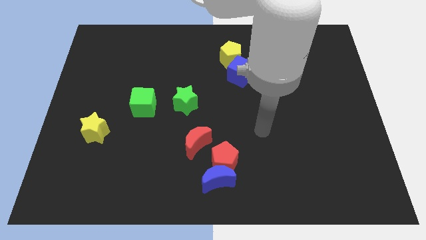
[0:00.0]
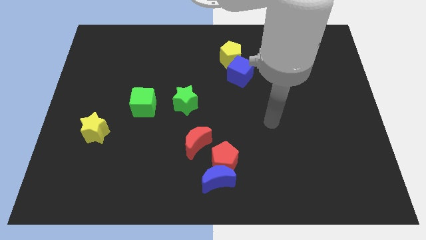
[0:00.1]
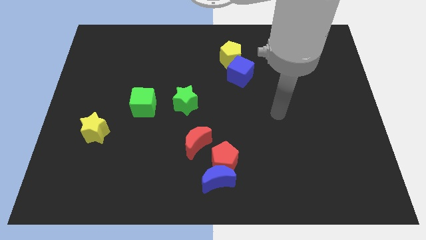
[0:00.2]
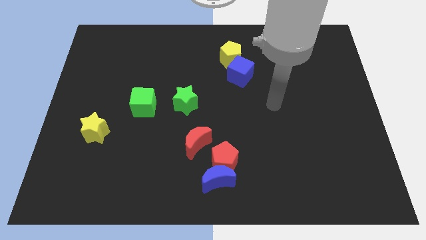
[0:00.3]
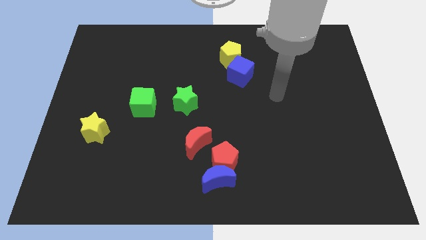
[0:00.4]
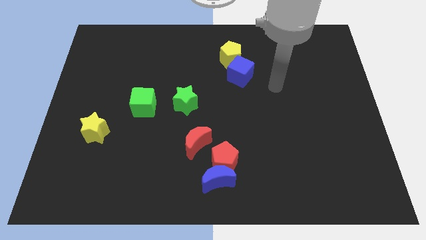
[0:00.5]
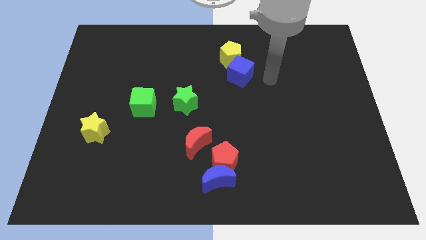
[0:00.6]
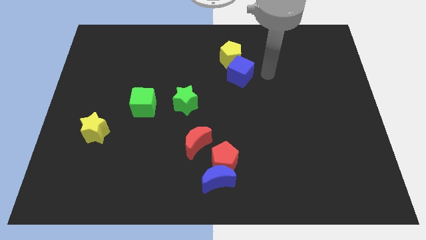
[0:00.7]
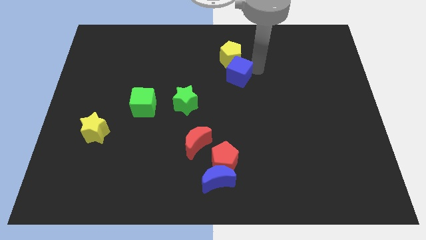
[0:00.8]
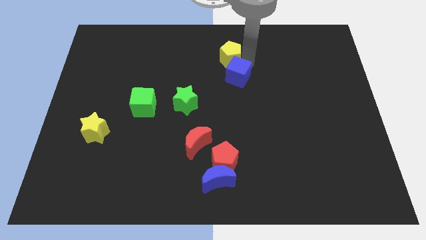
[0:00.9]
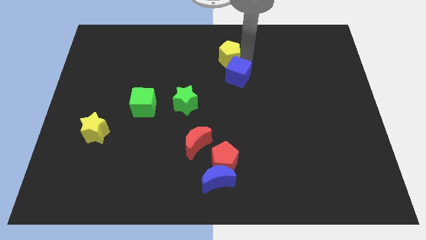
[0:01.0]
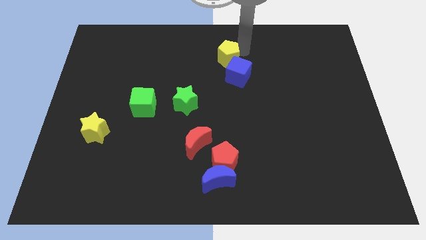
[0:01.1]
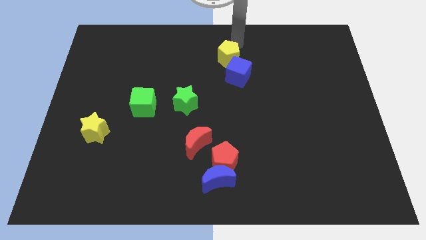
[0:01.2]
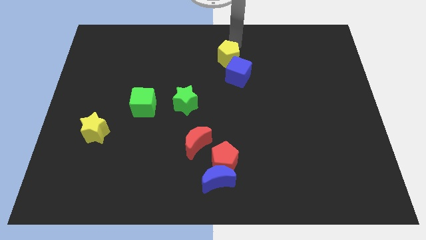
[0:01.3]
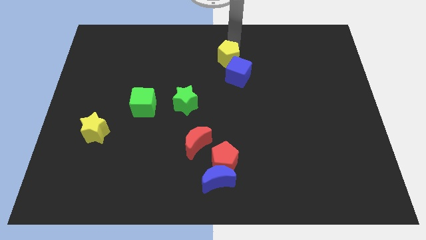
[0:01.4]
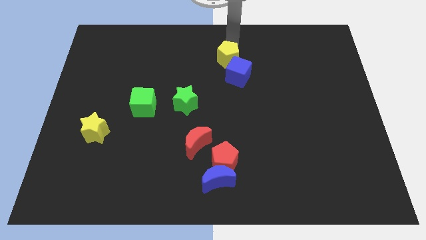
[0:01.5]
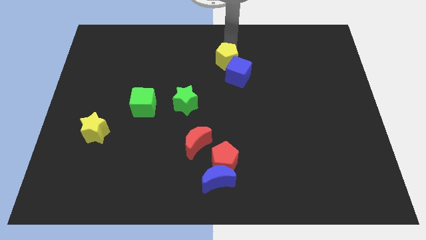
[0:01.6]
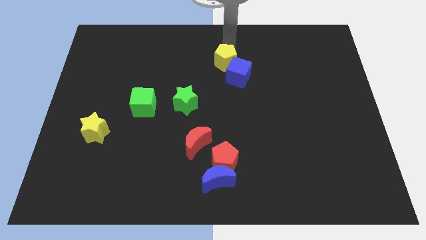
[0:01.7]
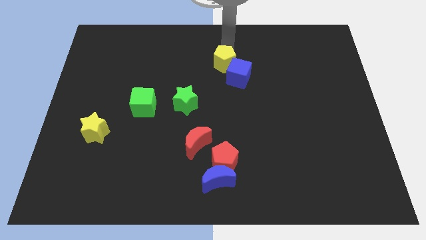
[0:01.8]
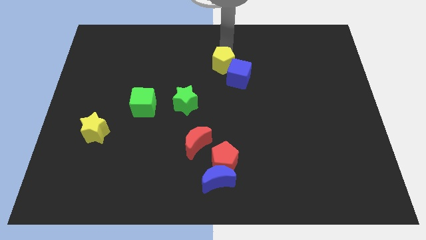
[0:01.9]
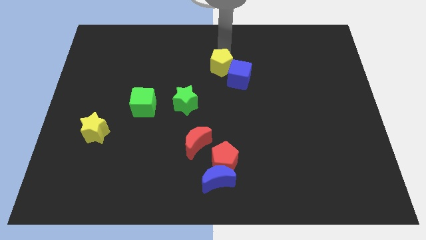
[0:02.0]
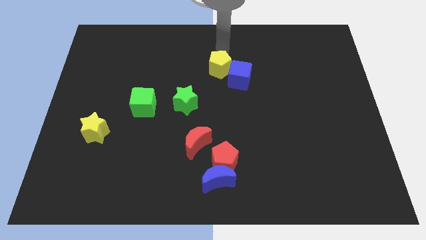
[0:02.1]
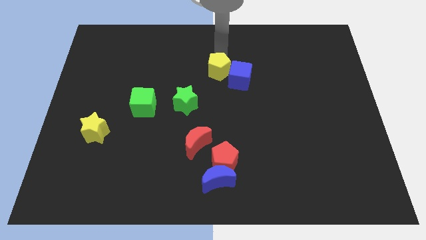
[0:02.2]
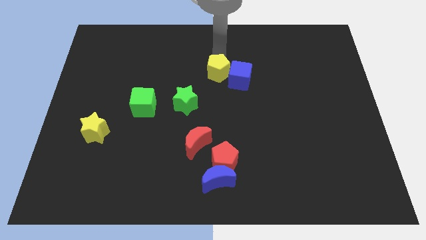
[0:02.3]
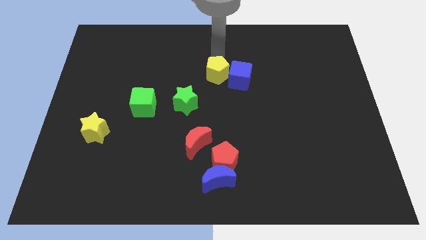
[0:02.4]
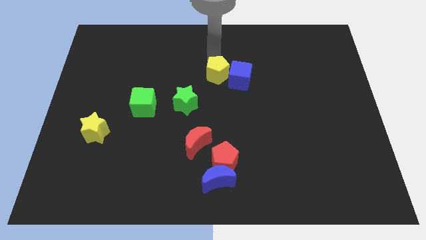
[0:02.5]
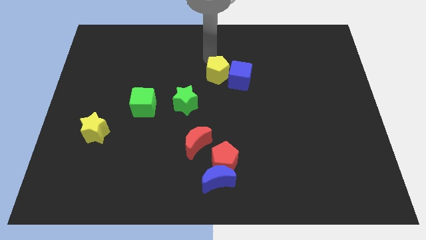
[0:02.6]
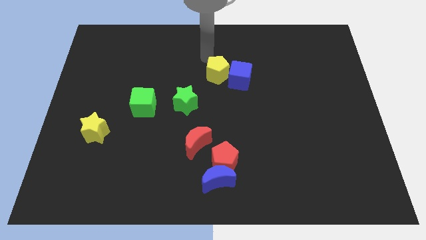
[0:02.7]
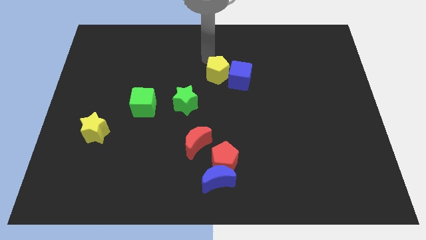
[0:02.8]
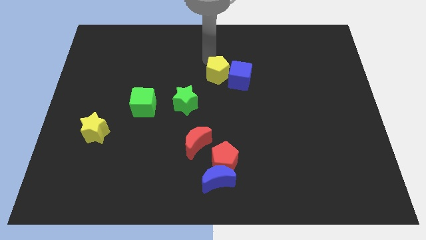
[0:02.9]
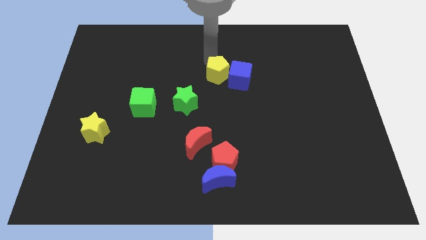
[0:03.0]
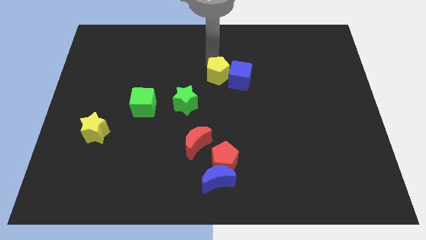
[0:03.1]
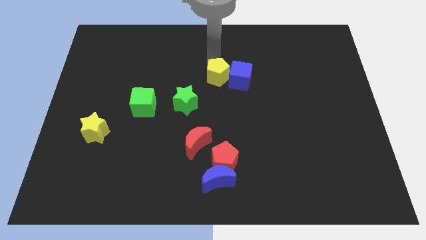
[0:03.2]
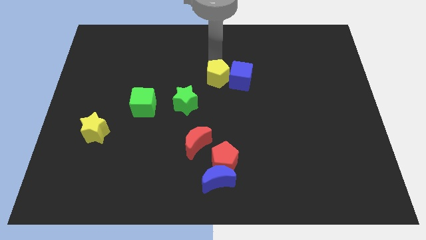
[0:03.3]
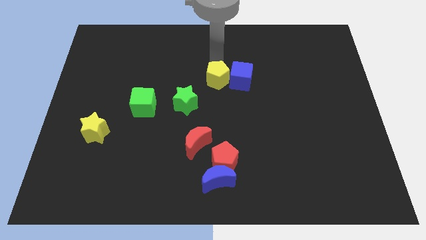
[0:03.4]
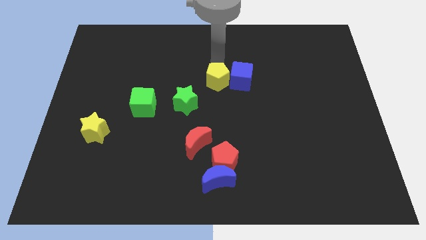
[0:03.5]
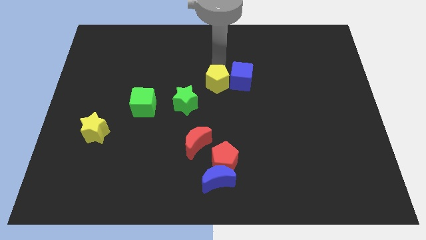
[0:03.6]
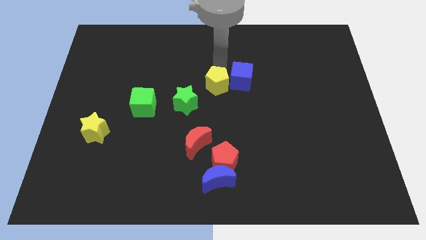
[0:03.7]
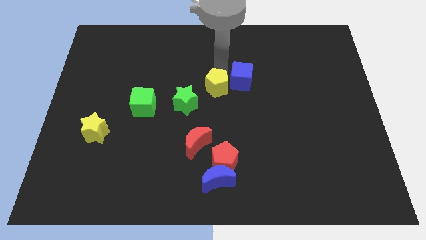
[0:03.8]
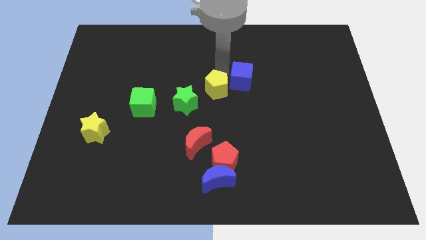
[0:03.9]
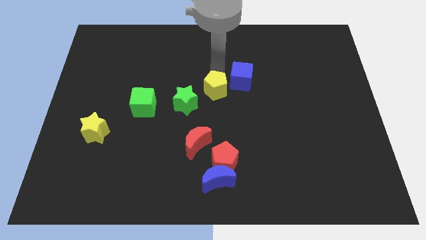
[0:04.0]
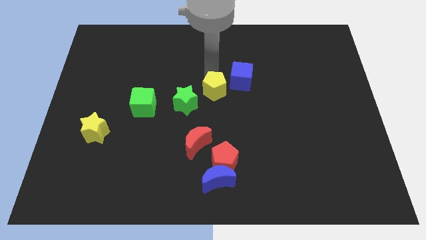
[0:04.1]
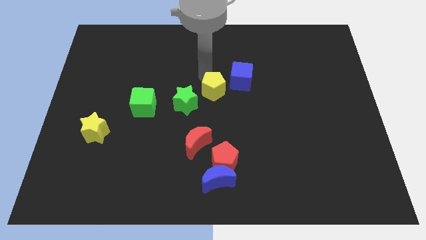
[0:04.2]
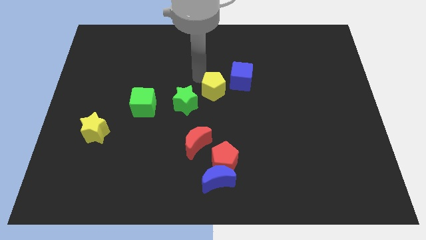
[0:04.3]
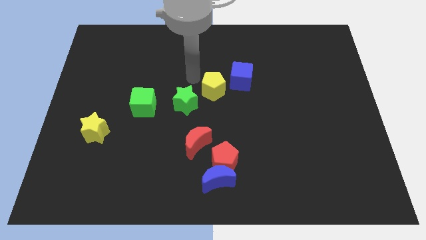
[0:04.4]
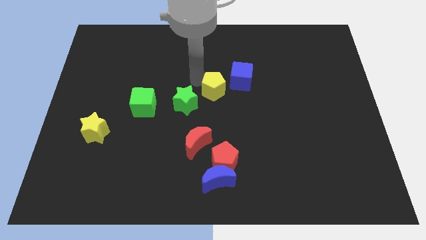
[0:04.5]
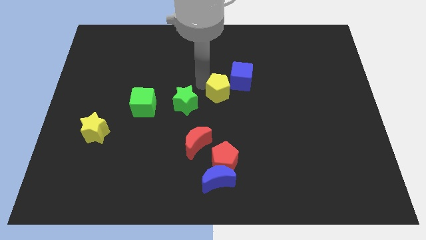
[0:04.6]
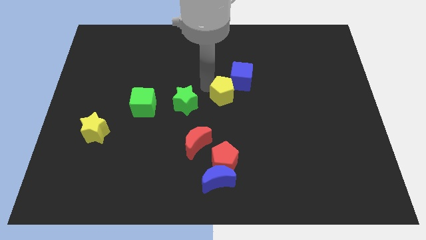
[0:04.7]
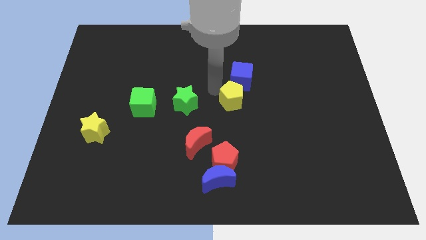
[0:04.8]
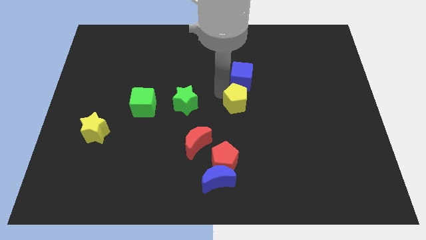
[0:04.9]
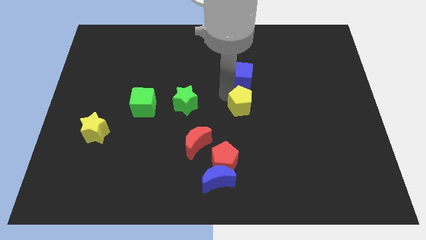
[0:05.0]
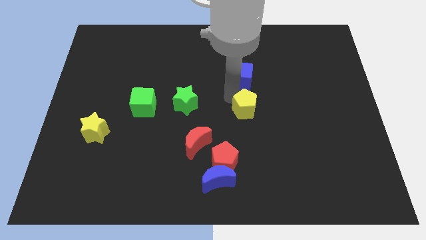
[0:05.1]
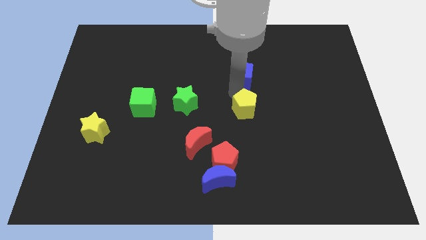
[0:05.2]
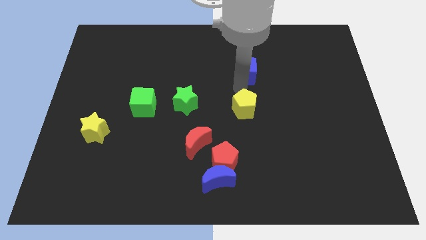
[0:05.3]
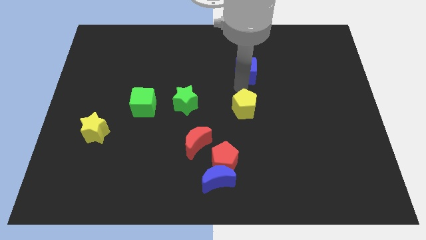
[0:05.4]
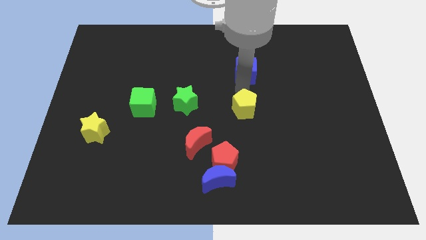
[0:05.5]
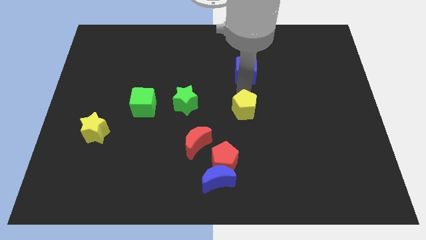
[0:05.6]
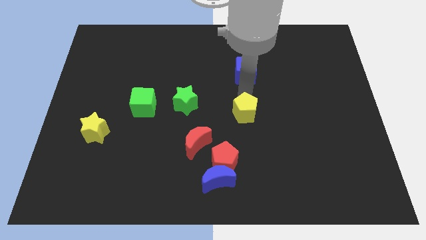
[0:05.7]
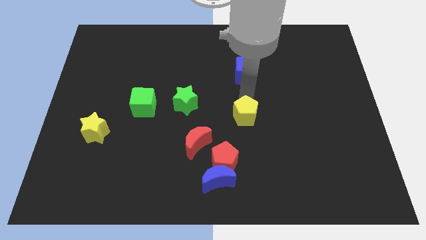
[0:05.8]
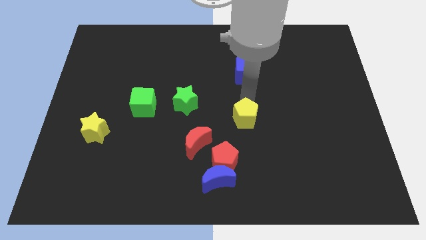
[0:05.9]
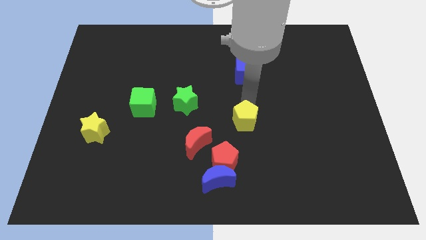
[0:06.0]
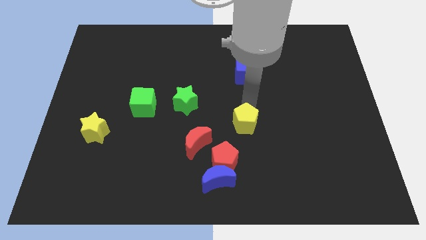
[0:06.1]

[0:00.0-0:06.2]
move the yellow pentagon diagonally up and to the right of the red pentagon

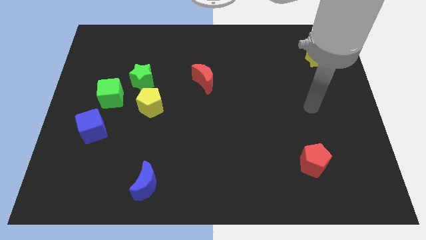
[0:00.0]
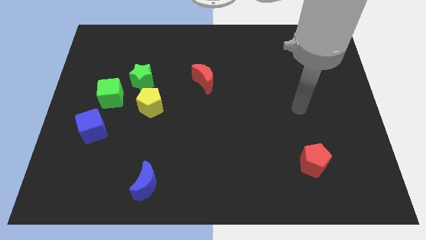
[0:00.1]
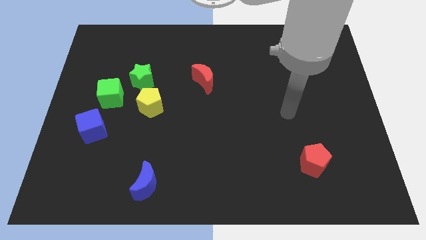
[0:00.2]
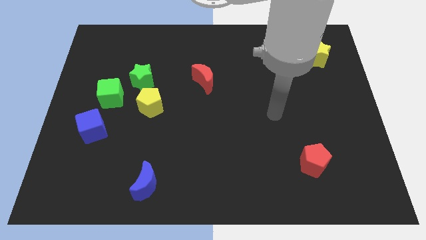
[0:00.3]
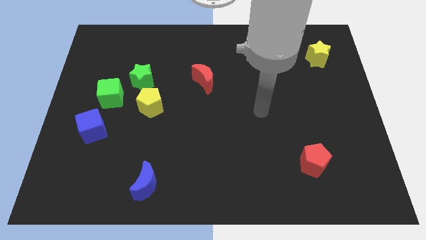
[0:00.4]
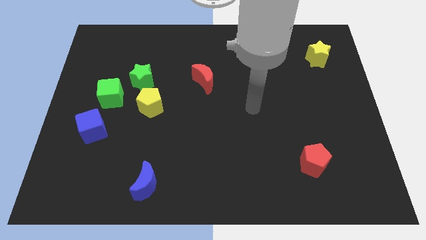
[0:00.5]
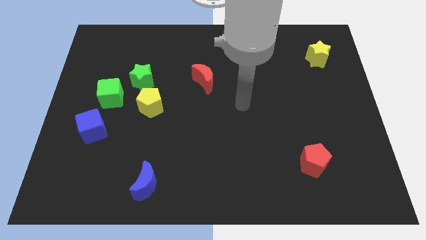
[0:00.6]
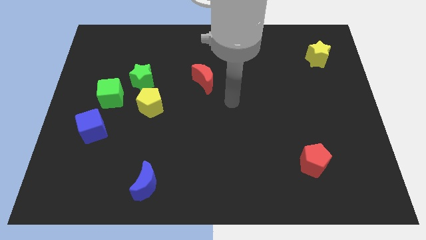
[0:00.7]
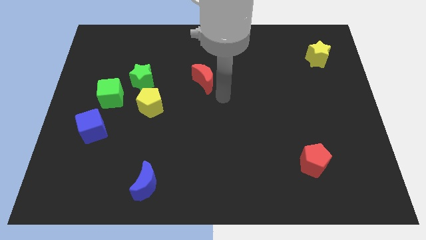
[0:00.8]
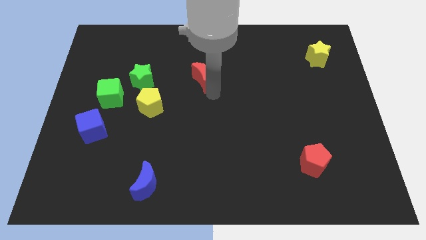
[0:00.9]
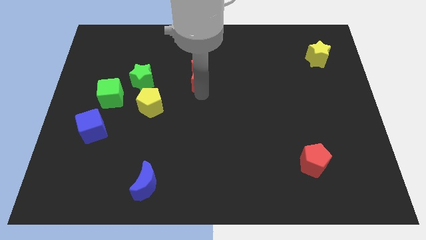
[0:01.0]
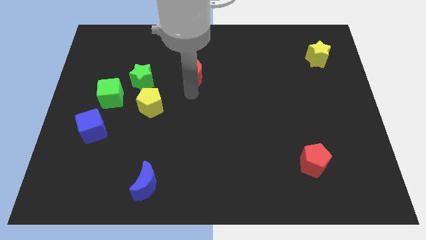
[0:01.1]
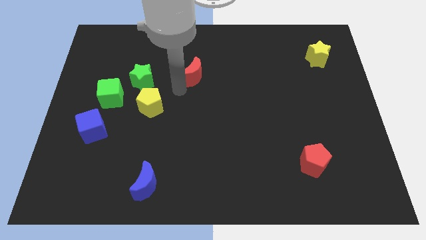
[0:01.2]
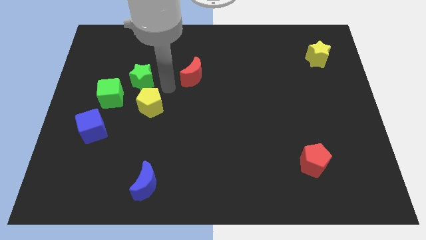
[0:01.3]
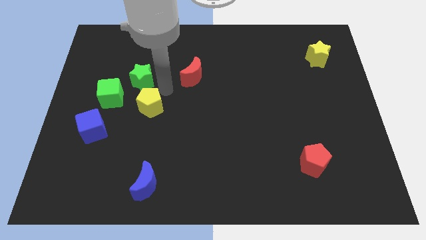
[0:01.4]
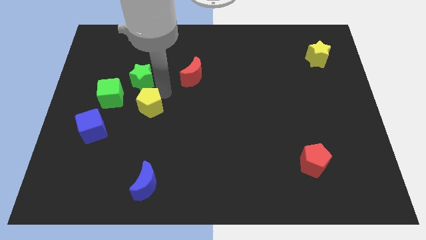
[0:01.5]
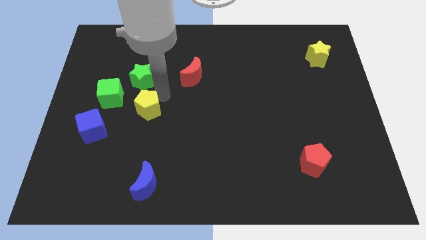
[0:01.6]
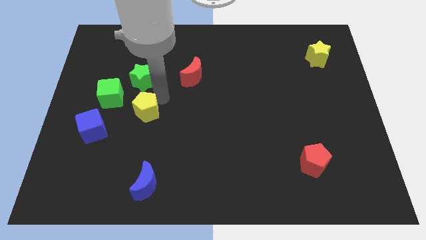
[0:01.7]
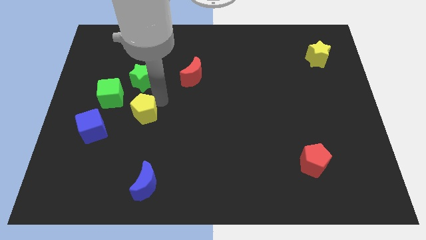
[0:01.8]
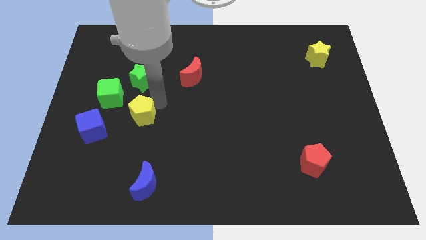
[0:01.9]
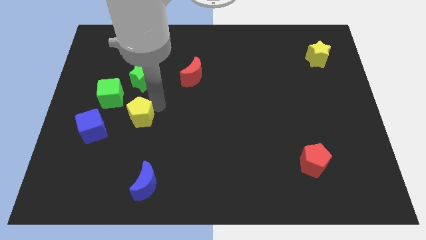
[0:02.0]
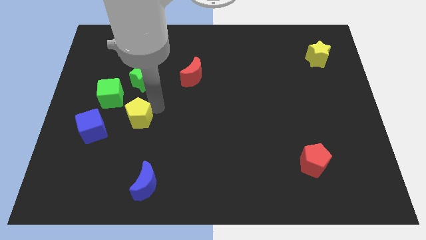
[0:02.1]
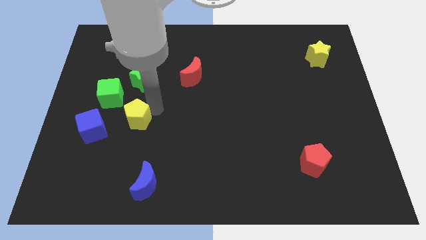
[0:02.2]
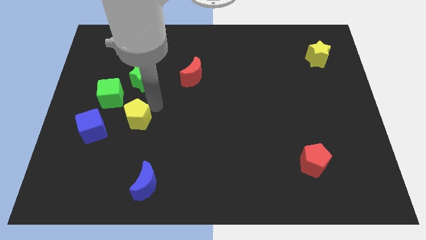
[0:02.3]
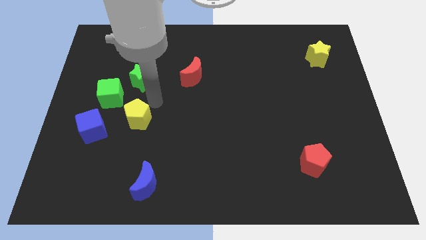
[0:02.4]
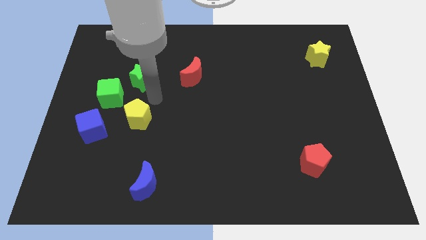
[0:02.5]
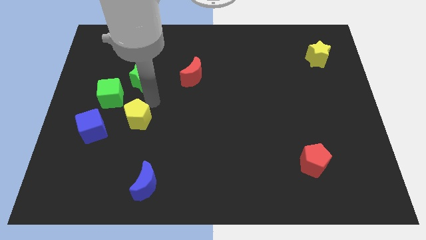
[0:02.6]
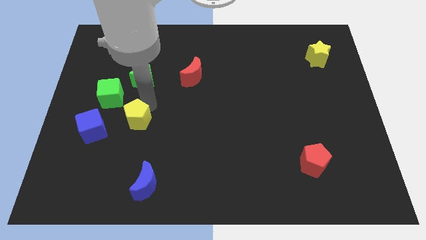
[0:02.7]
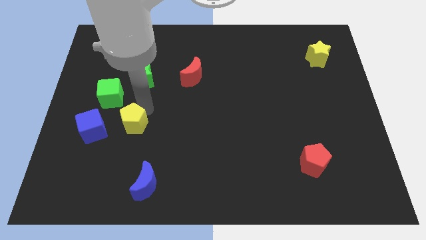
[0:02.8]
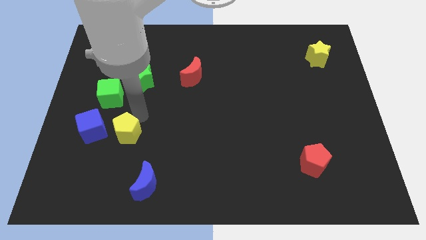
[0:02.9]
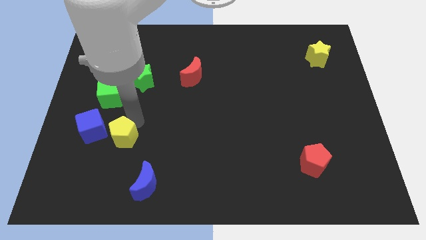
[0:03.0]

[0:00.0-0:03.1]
push the yellow pentagon to the bottom right side of the blue cube
